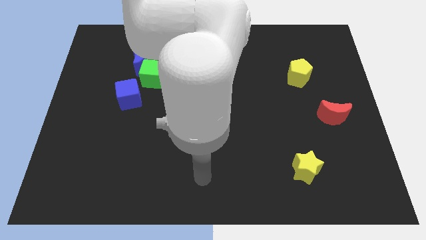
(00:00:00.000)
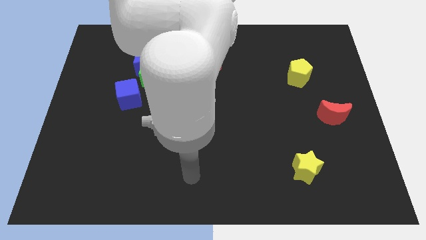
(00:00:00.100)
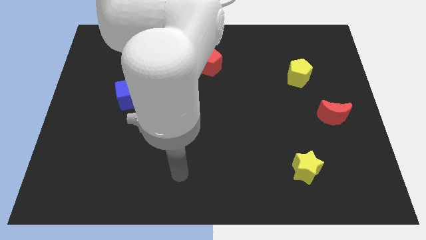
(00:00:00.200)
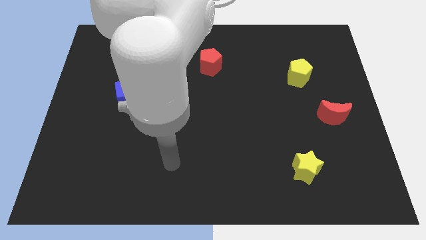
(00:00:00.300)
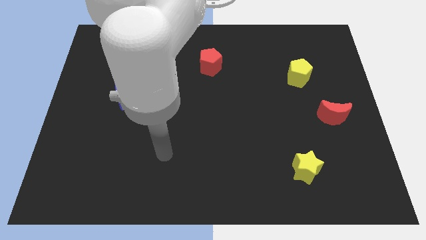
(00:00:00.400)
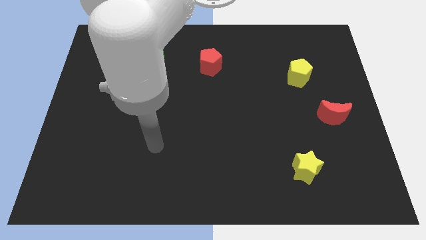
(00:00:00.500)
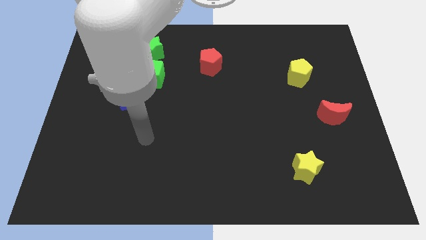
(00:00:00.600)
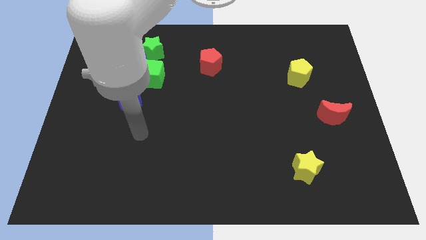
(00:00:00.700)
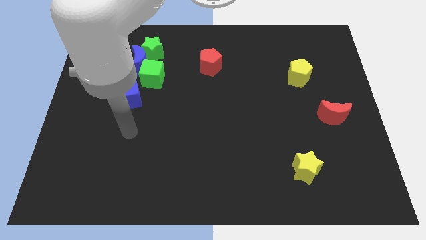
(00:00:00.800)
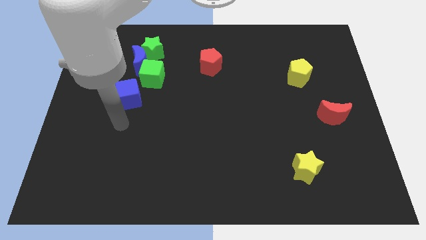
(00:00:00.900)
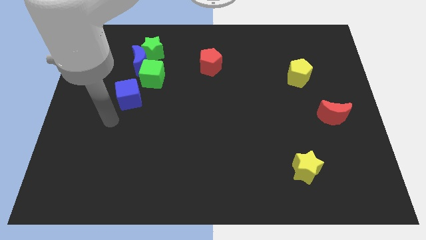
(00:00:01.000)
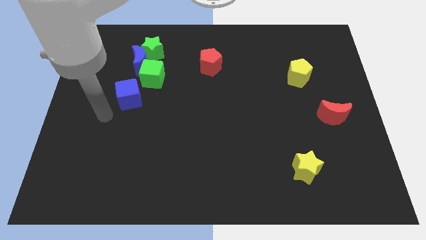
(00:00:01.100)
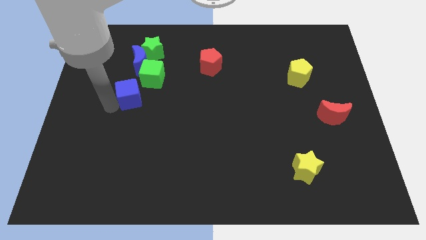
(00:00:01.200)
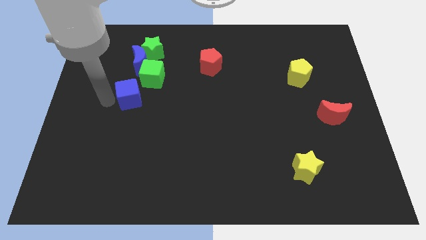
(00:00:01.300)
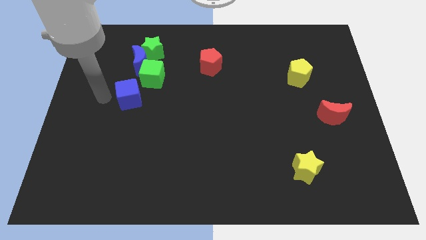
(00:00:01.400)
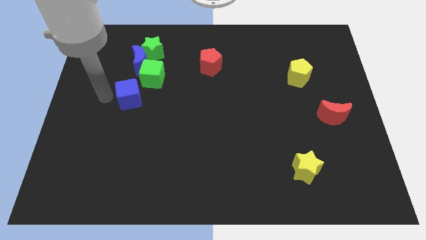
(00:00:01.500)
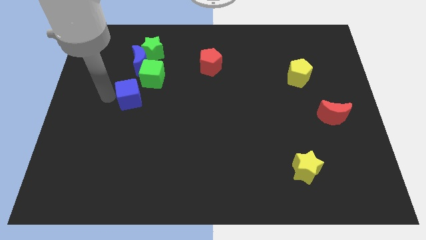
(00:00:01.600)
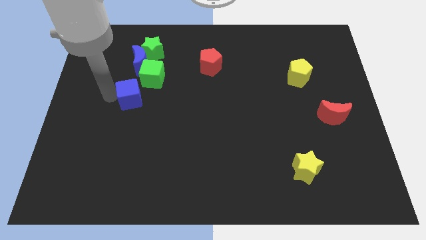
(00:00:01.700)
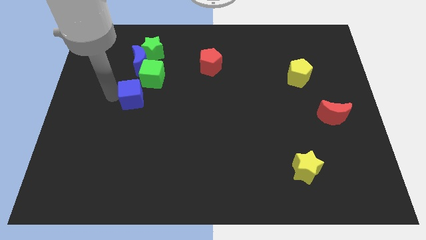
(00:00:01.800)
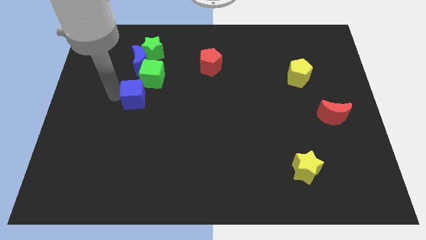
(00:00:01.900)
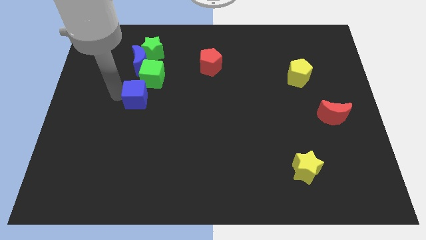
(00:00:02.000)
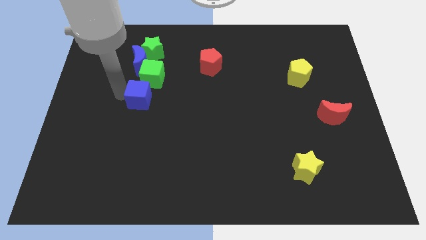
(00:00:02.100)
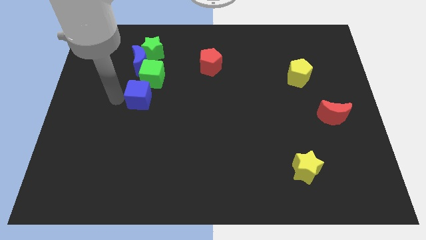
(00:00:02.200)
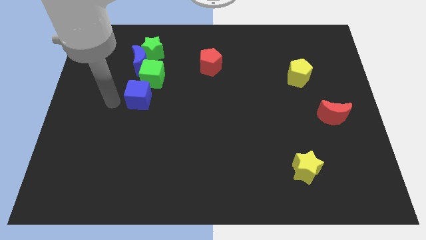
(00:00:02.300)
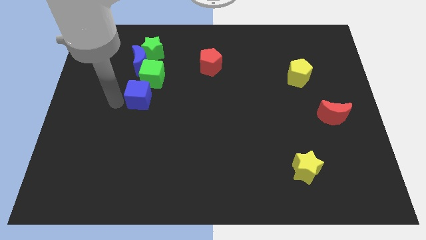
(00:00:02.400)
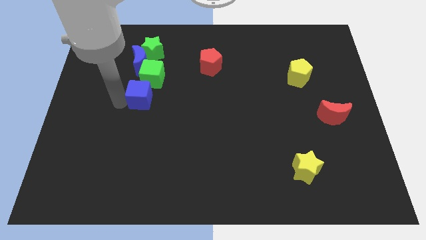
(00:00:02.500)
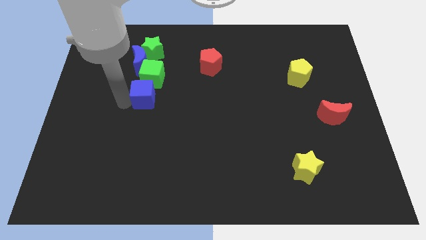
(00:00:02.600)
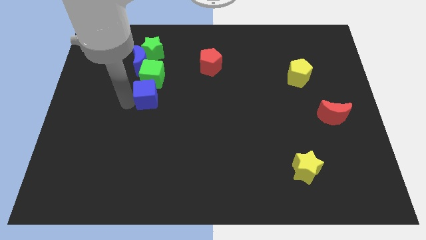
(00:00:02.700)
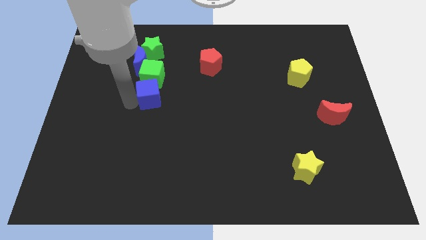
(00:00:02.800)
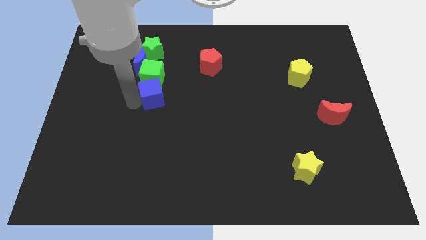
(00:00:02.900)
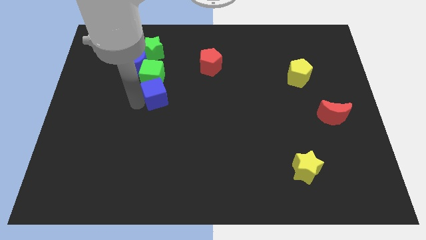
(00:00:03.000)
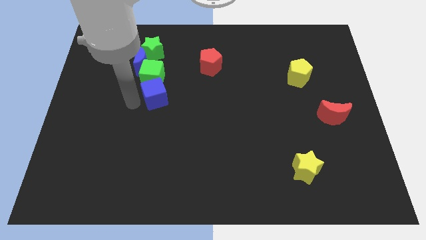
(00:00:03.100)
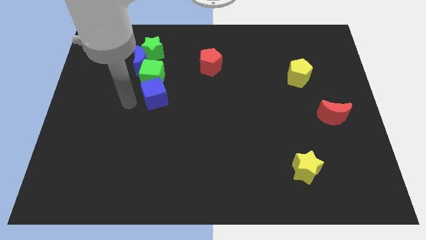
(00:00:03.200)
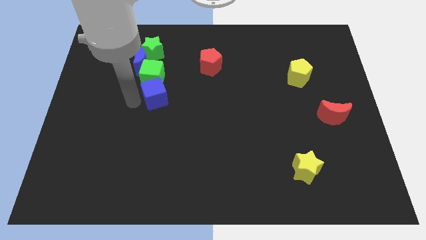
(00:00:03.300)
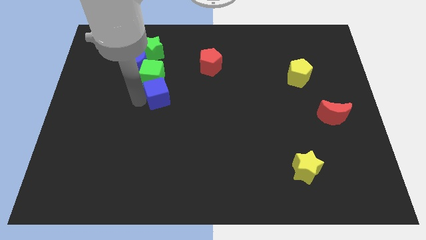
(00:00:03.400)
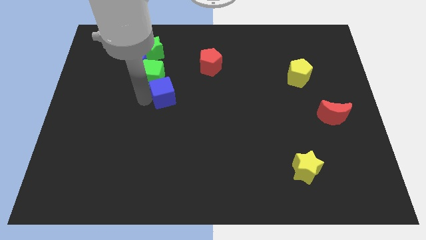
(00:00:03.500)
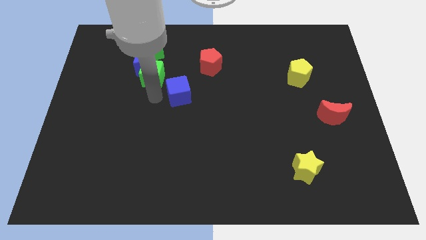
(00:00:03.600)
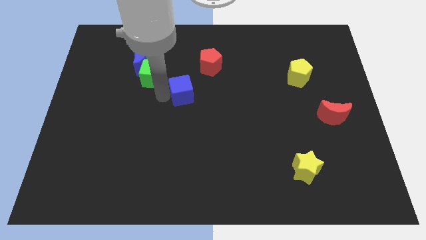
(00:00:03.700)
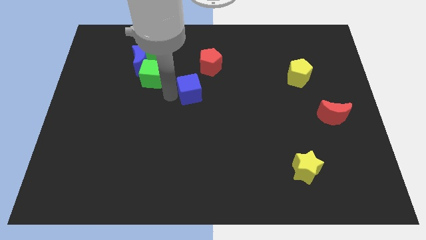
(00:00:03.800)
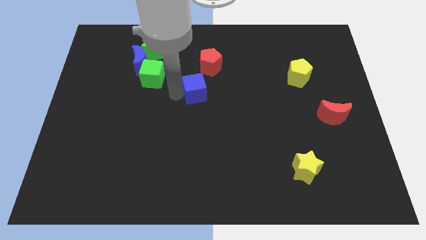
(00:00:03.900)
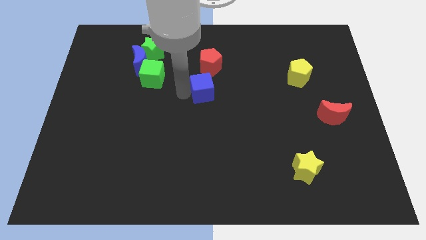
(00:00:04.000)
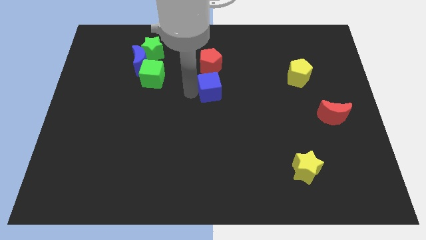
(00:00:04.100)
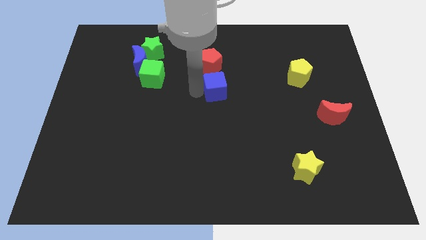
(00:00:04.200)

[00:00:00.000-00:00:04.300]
push the blue cube to the right

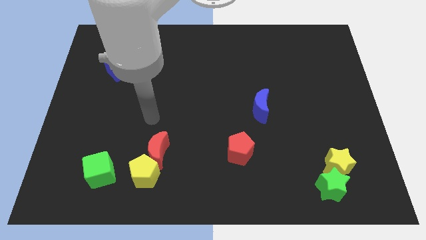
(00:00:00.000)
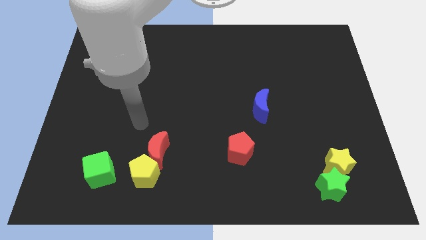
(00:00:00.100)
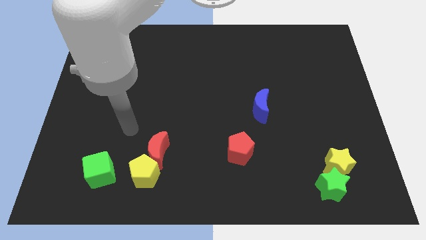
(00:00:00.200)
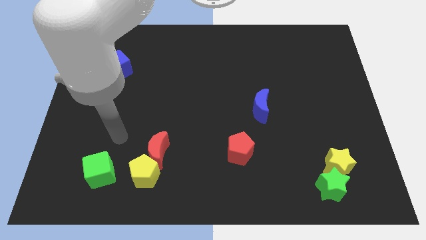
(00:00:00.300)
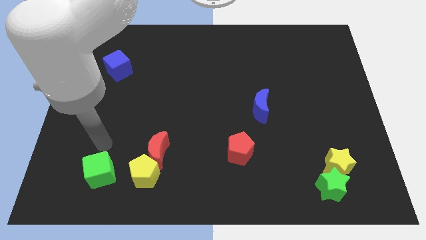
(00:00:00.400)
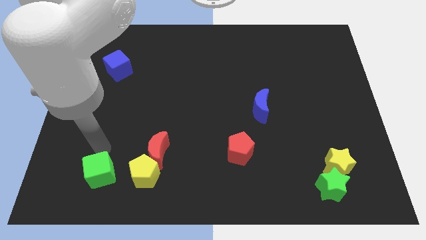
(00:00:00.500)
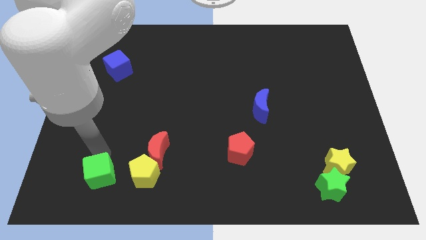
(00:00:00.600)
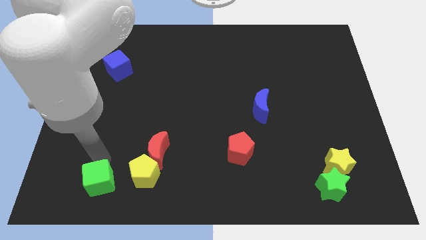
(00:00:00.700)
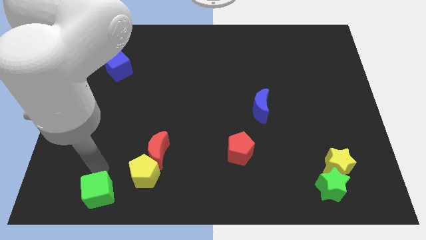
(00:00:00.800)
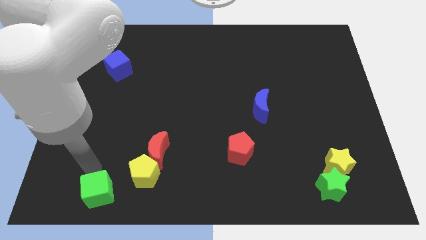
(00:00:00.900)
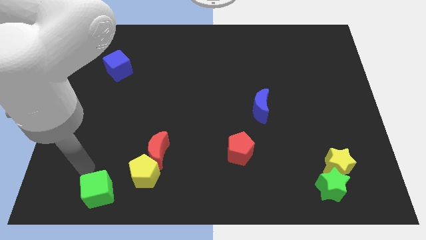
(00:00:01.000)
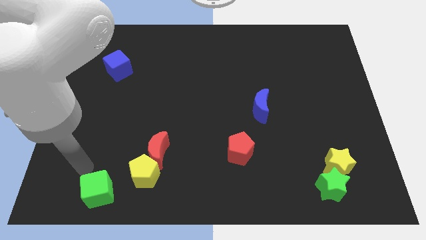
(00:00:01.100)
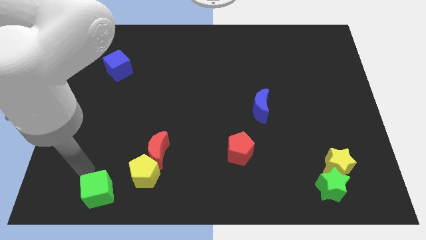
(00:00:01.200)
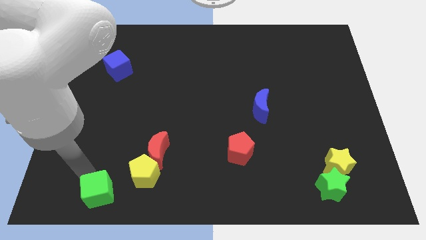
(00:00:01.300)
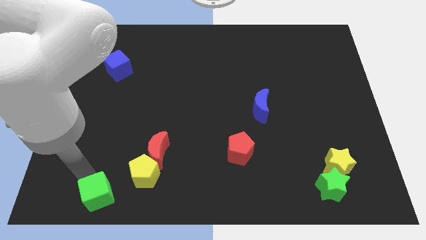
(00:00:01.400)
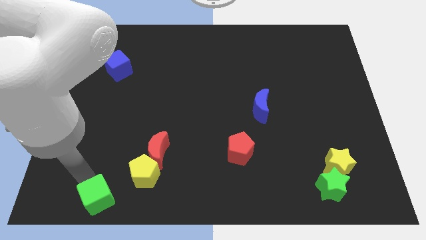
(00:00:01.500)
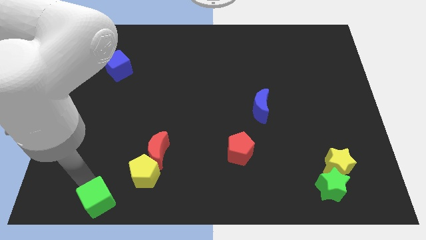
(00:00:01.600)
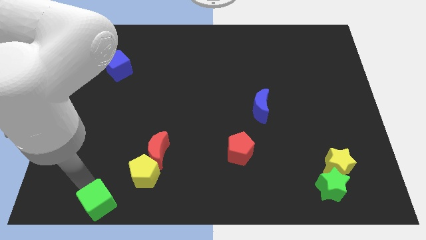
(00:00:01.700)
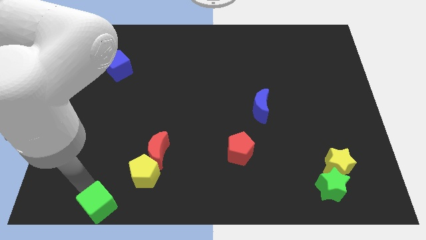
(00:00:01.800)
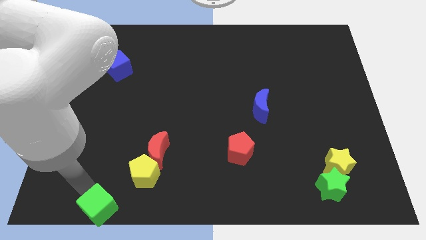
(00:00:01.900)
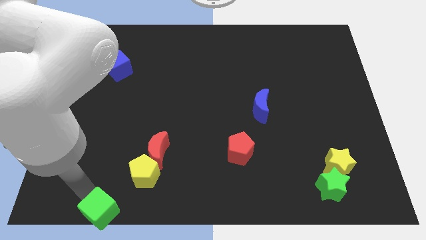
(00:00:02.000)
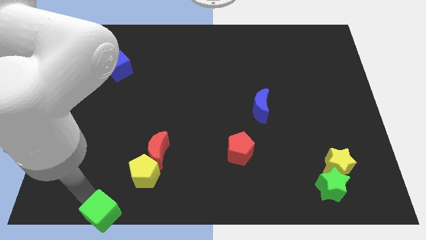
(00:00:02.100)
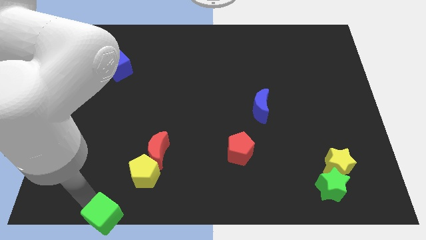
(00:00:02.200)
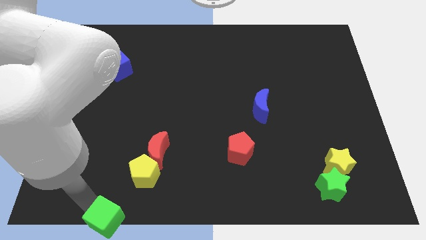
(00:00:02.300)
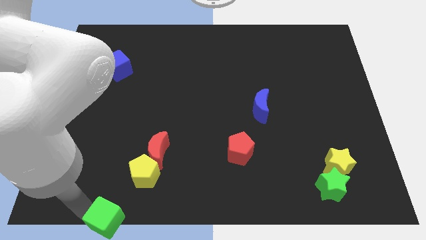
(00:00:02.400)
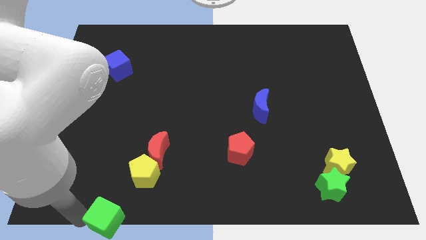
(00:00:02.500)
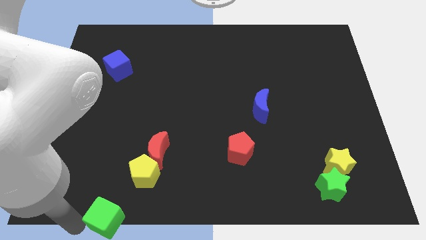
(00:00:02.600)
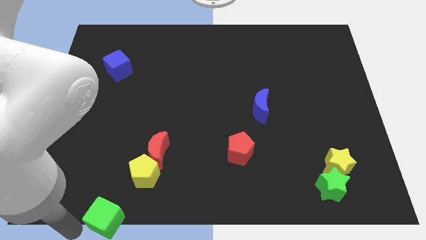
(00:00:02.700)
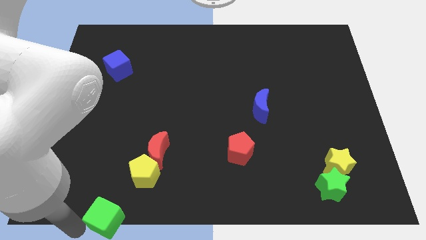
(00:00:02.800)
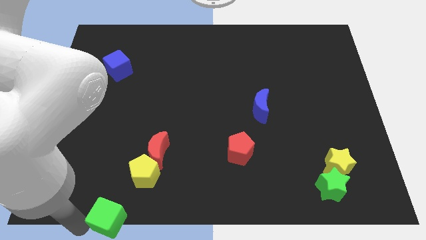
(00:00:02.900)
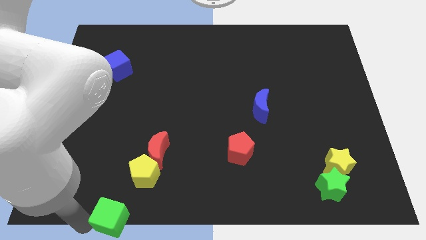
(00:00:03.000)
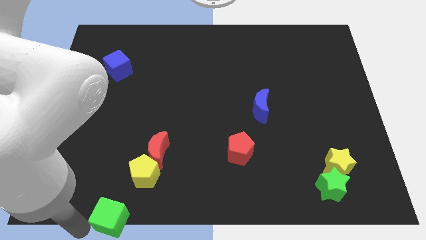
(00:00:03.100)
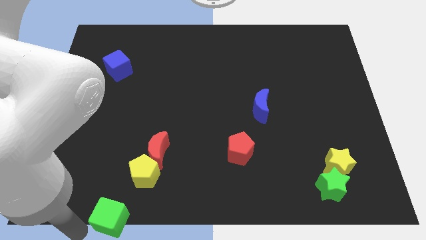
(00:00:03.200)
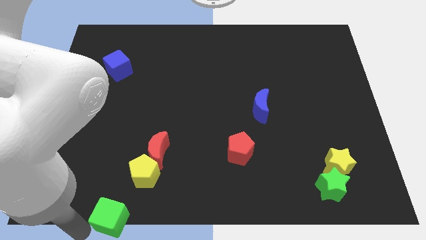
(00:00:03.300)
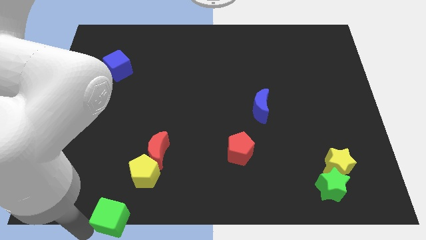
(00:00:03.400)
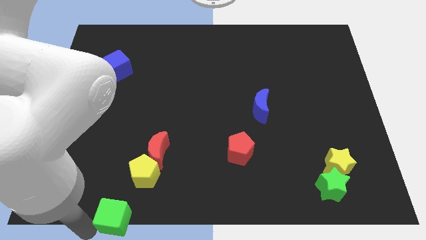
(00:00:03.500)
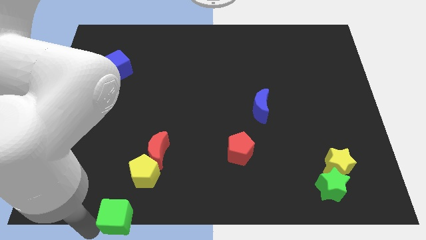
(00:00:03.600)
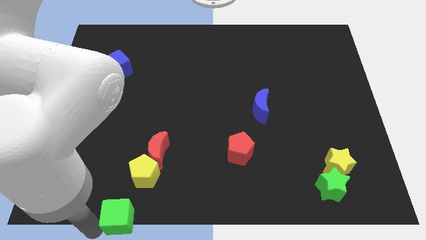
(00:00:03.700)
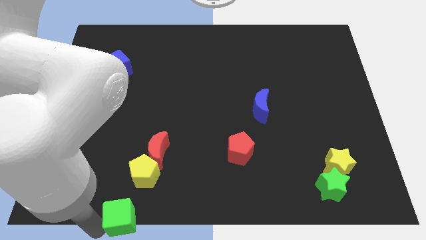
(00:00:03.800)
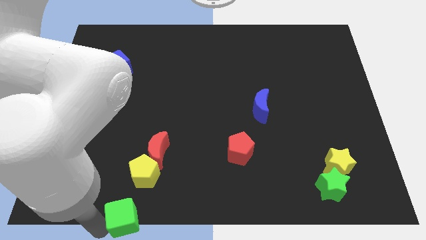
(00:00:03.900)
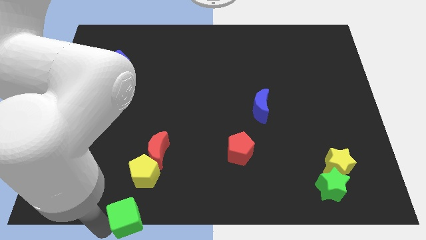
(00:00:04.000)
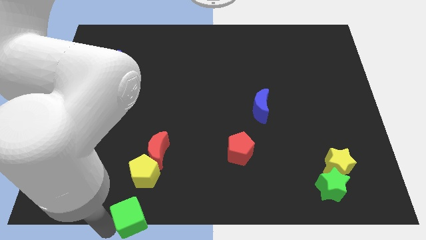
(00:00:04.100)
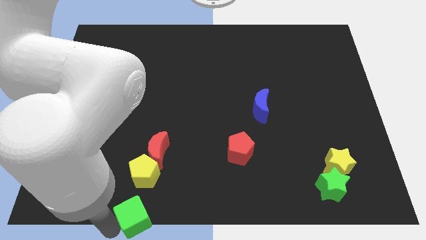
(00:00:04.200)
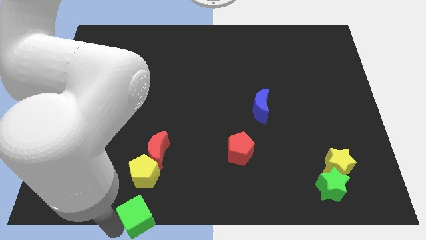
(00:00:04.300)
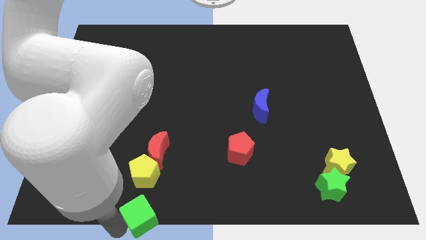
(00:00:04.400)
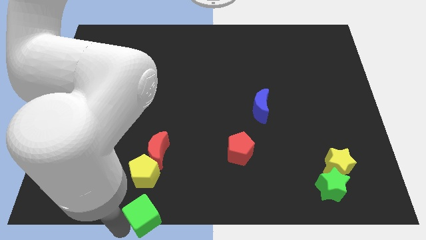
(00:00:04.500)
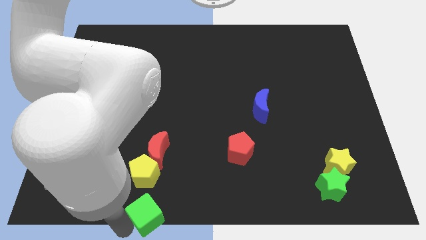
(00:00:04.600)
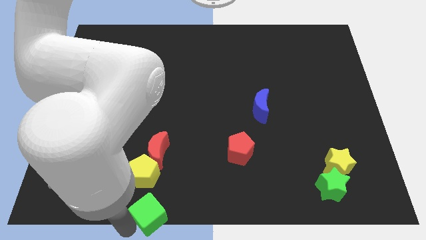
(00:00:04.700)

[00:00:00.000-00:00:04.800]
slightly push the green cube right
